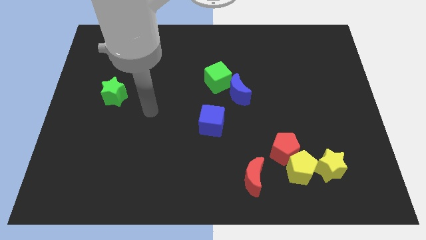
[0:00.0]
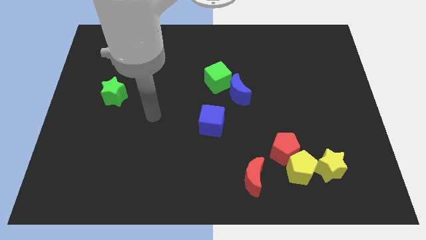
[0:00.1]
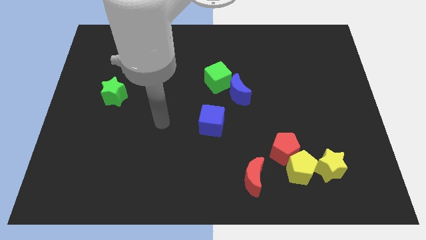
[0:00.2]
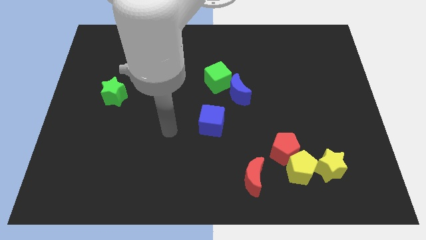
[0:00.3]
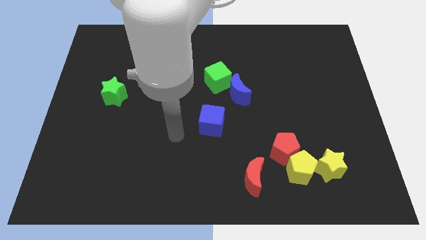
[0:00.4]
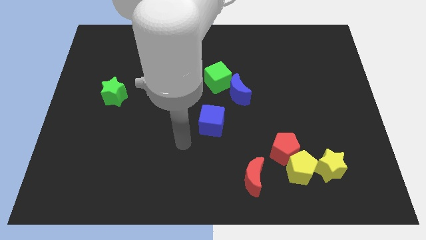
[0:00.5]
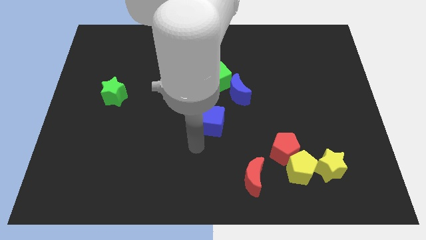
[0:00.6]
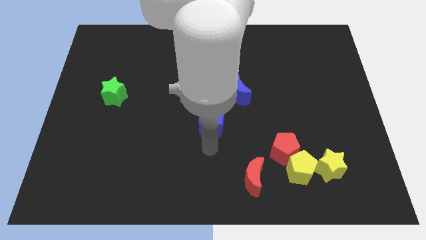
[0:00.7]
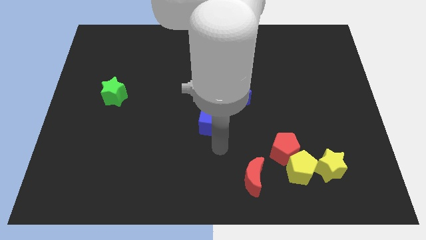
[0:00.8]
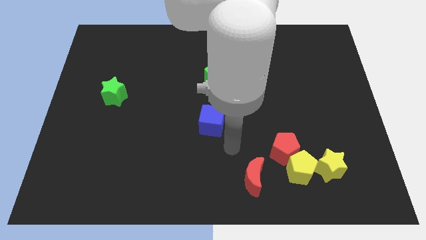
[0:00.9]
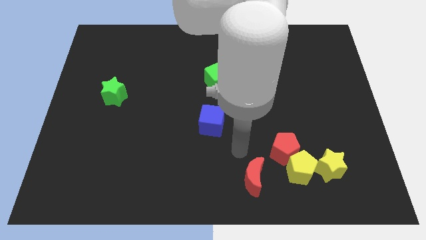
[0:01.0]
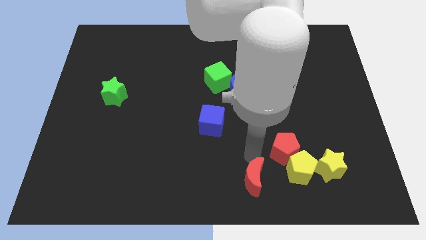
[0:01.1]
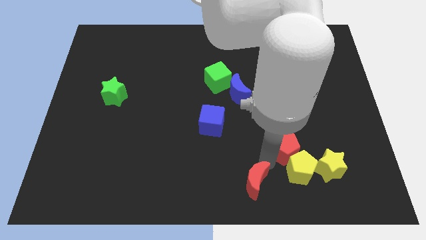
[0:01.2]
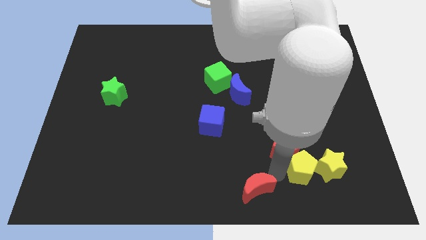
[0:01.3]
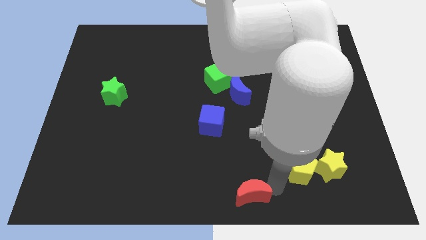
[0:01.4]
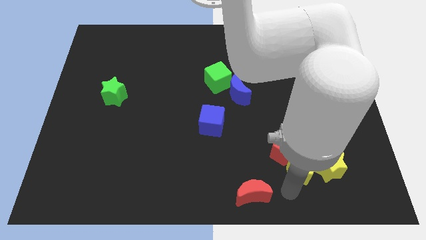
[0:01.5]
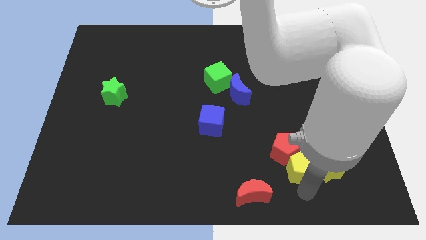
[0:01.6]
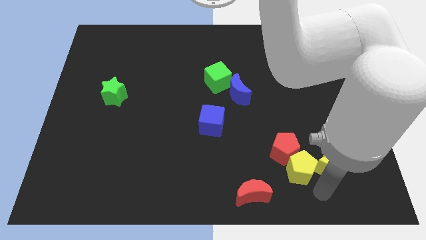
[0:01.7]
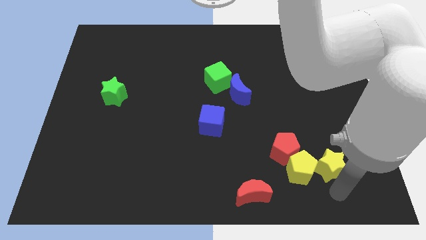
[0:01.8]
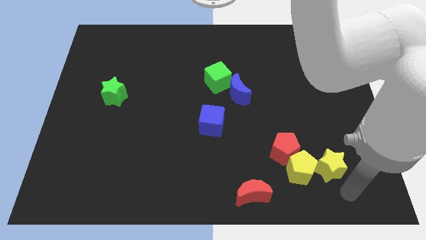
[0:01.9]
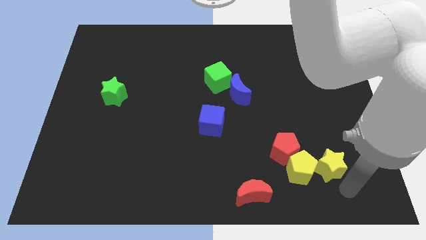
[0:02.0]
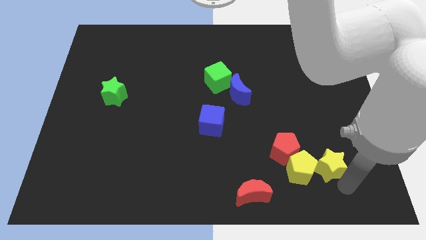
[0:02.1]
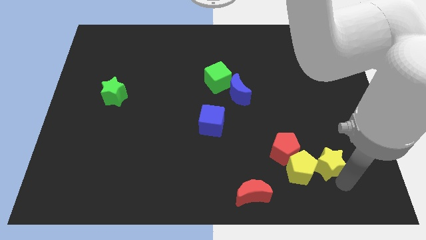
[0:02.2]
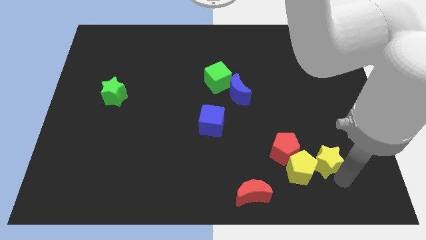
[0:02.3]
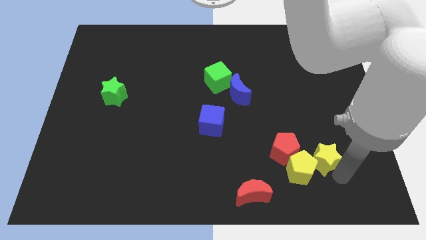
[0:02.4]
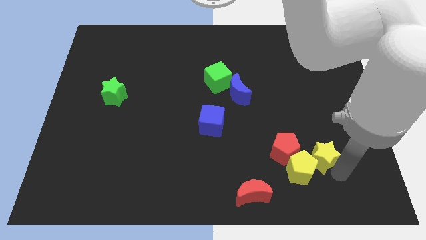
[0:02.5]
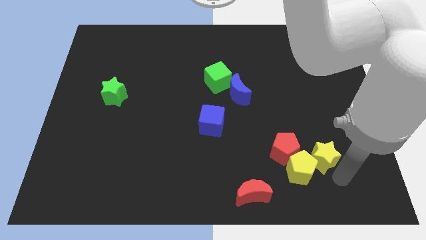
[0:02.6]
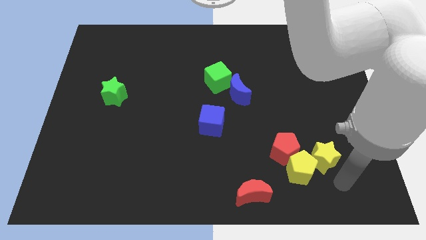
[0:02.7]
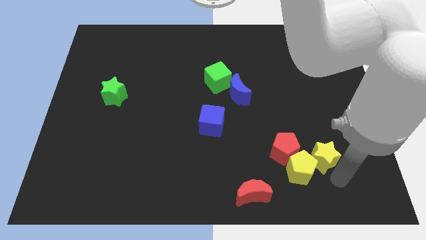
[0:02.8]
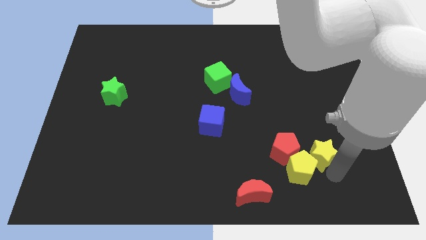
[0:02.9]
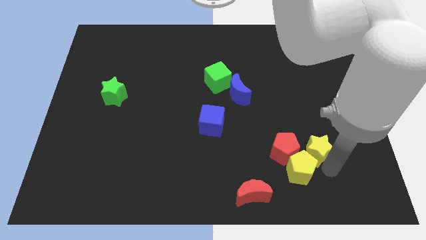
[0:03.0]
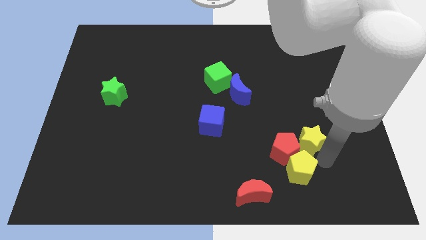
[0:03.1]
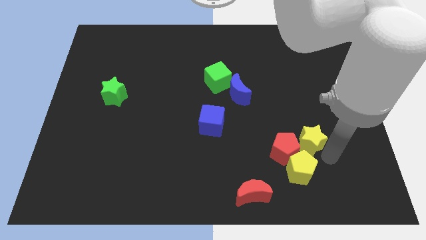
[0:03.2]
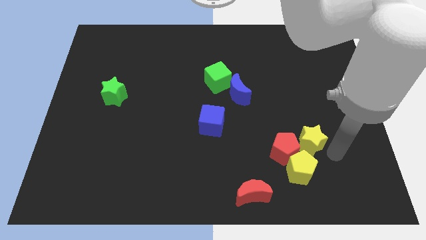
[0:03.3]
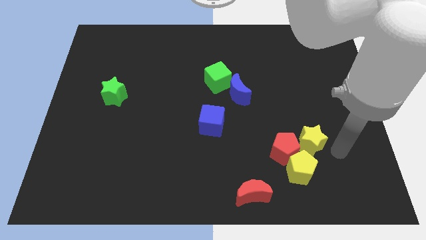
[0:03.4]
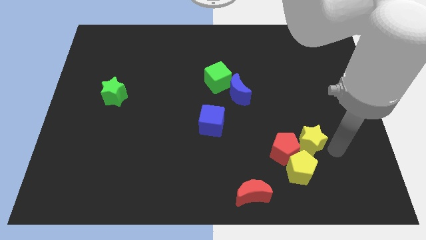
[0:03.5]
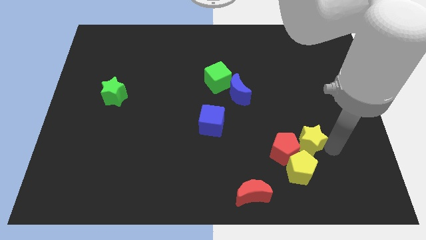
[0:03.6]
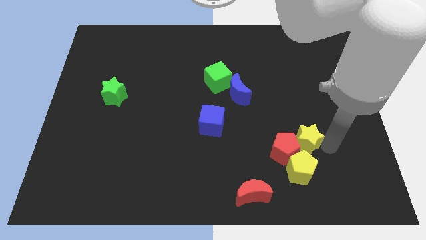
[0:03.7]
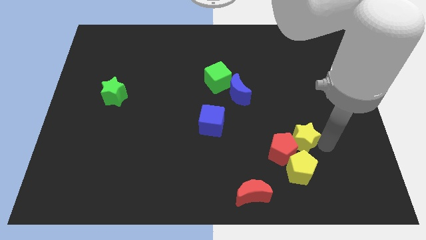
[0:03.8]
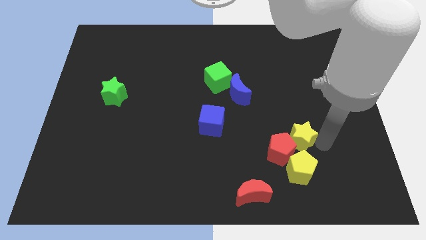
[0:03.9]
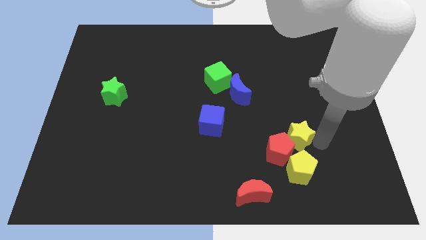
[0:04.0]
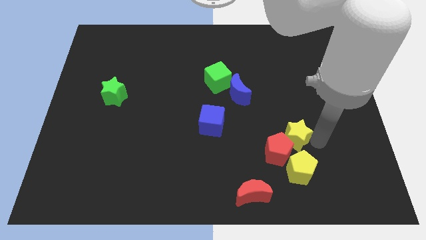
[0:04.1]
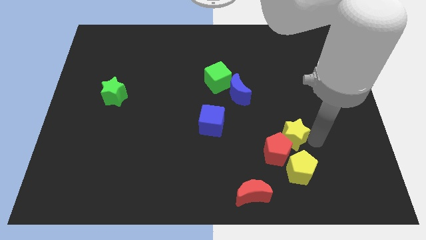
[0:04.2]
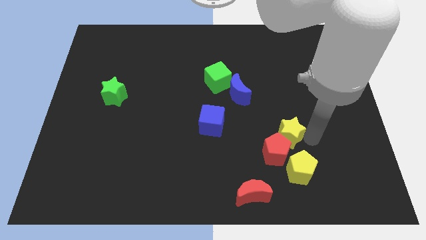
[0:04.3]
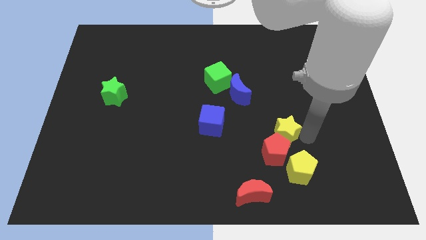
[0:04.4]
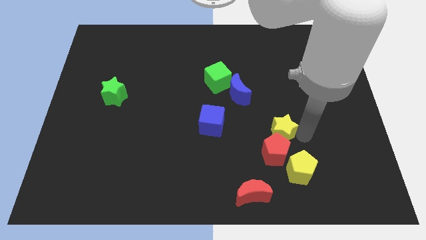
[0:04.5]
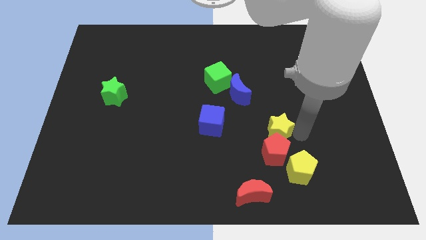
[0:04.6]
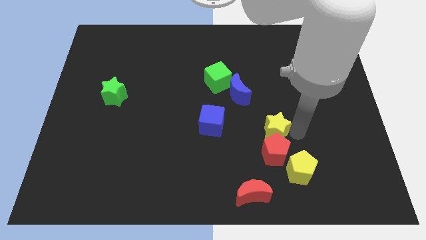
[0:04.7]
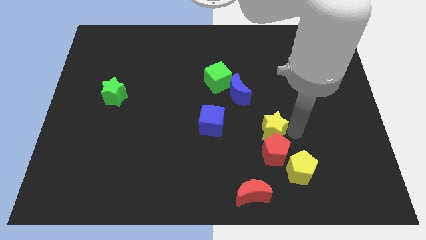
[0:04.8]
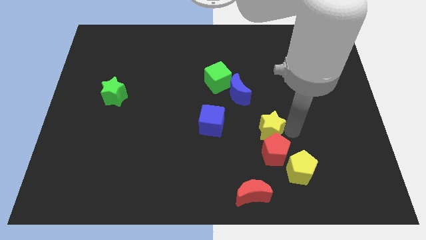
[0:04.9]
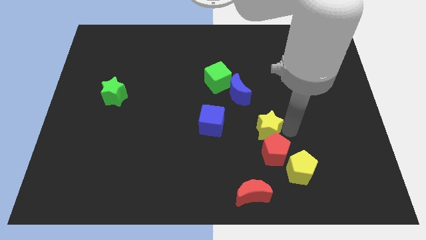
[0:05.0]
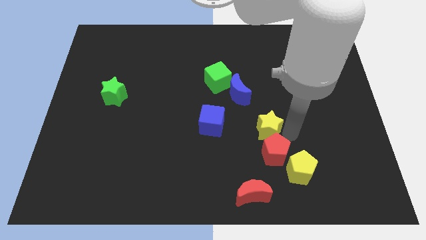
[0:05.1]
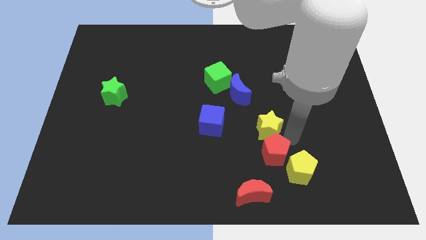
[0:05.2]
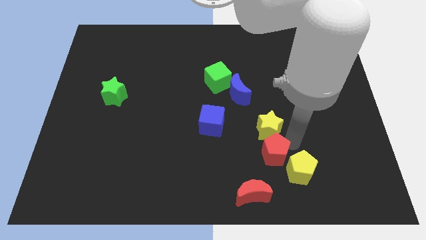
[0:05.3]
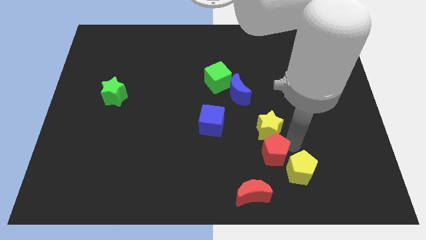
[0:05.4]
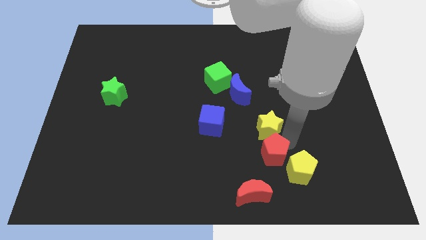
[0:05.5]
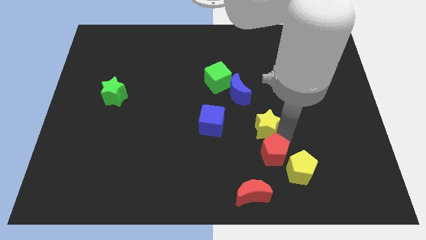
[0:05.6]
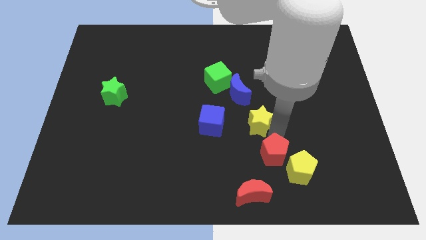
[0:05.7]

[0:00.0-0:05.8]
put the yellow star to the center

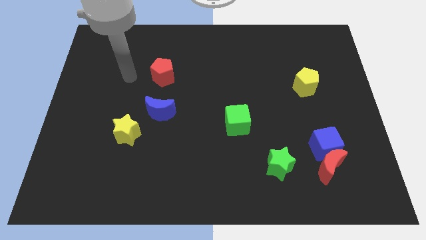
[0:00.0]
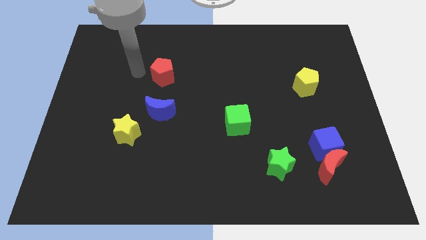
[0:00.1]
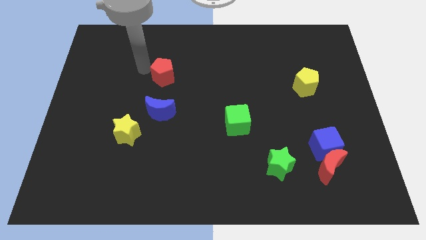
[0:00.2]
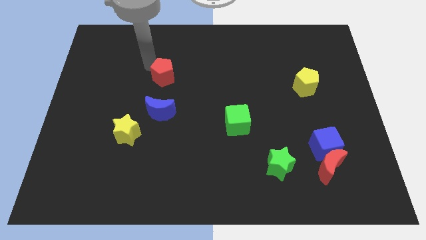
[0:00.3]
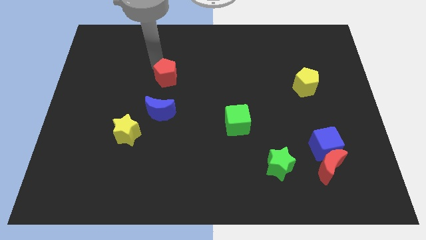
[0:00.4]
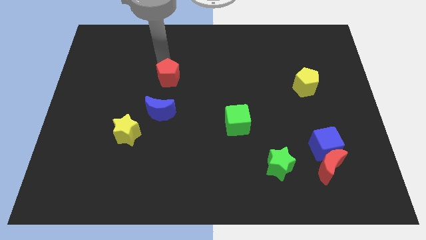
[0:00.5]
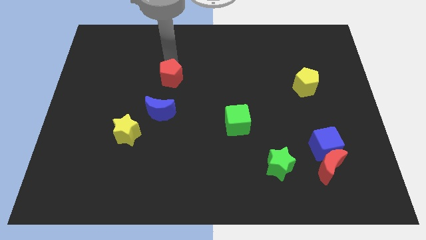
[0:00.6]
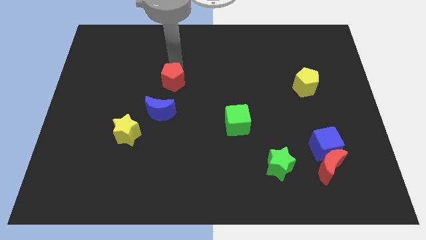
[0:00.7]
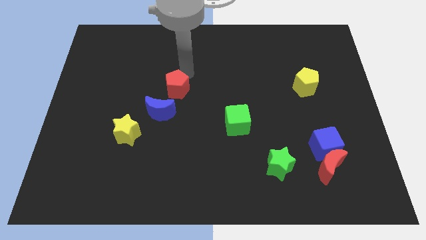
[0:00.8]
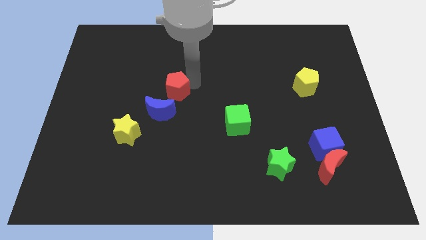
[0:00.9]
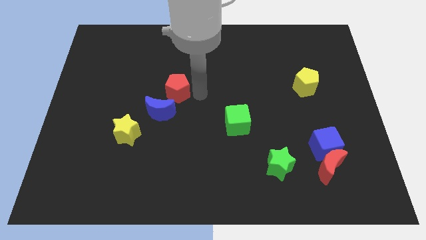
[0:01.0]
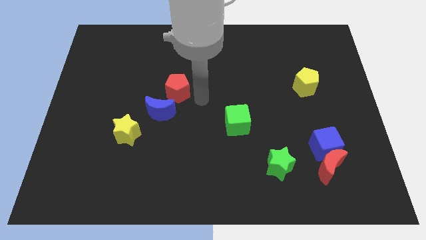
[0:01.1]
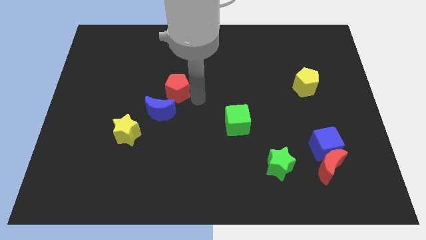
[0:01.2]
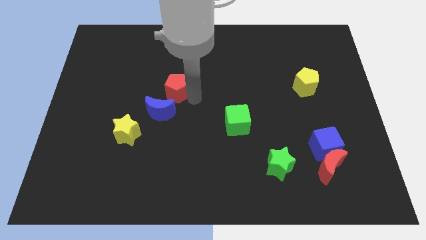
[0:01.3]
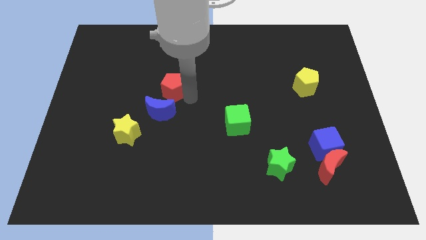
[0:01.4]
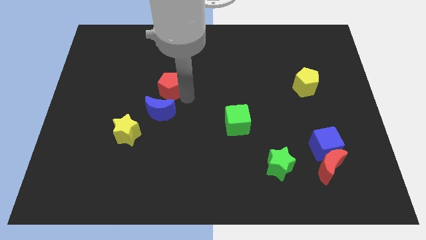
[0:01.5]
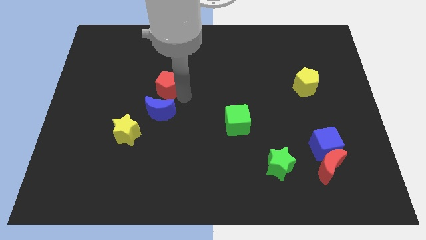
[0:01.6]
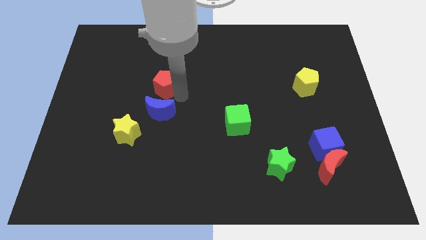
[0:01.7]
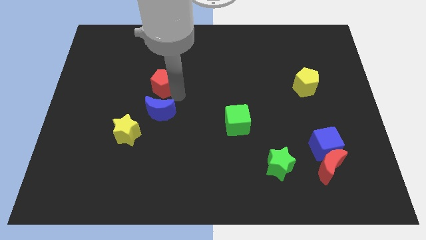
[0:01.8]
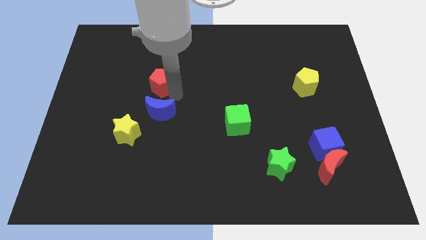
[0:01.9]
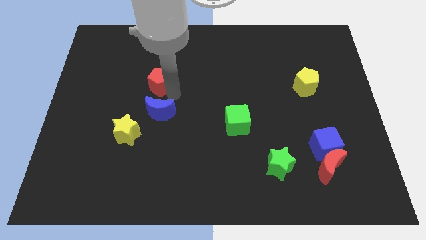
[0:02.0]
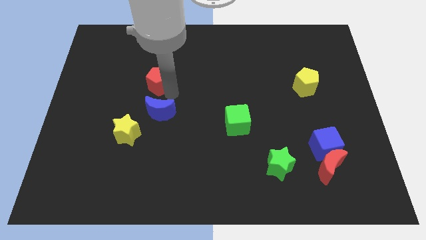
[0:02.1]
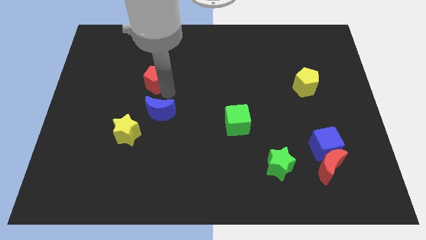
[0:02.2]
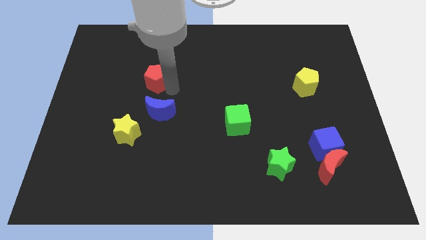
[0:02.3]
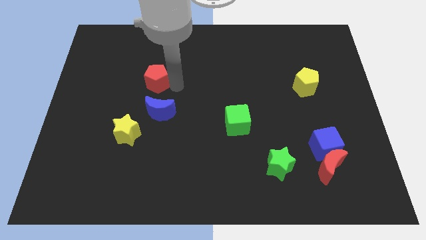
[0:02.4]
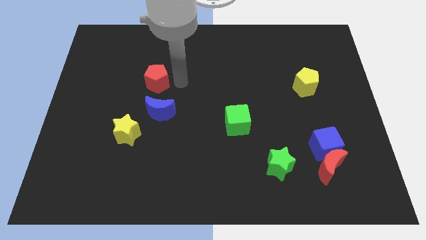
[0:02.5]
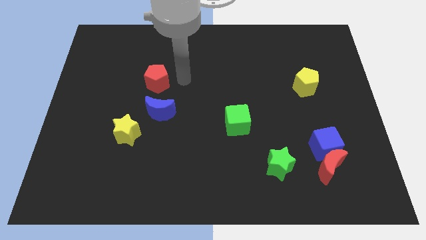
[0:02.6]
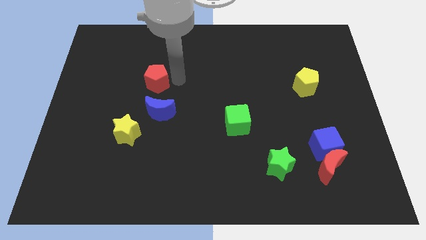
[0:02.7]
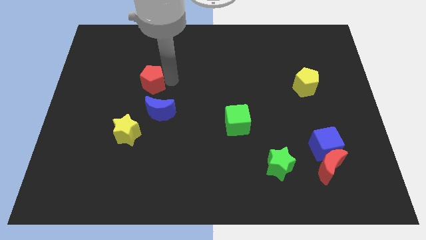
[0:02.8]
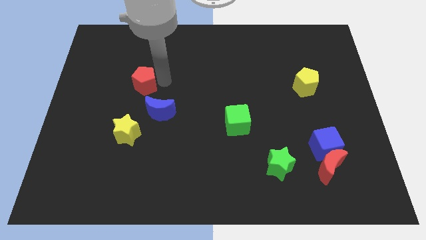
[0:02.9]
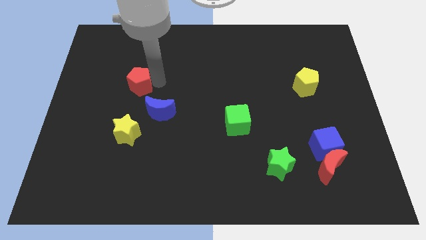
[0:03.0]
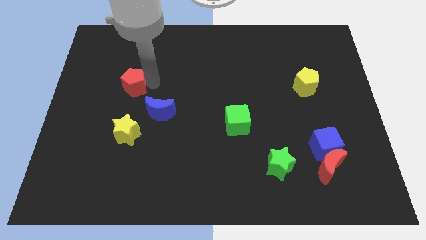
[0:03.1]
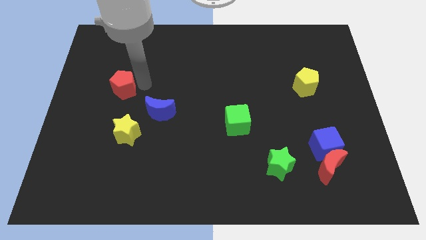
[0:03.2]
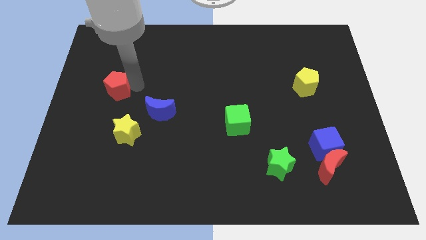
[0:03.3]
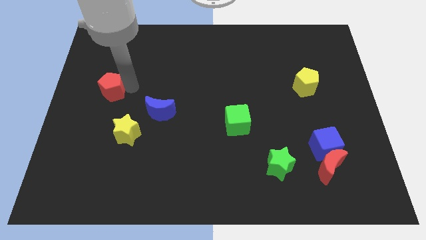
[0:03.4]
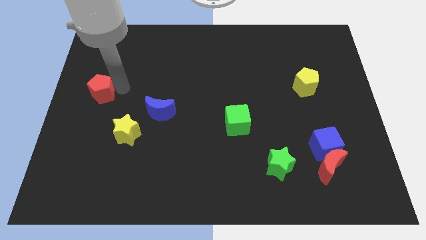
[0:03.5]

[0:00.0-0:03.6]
push the red pentagon to the center left
